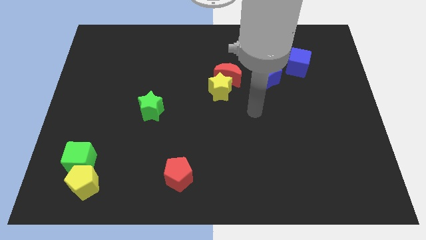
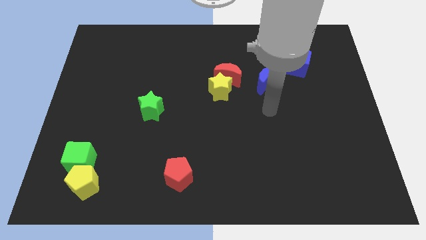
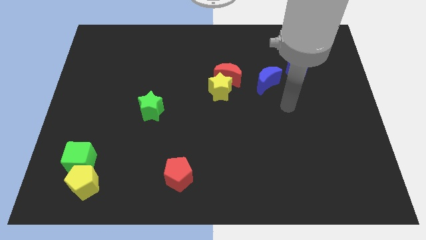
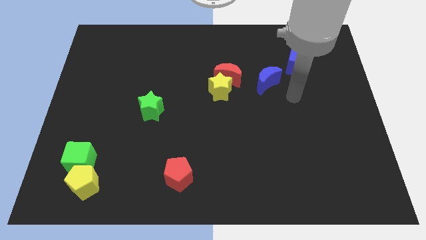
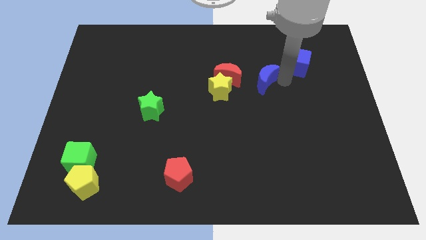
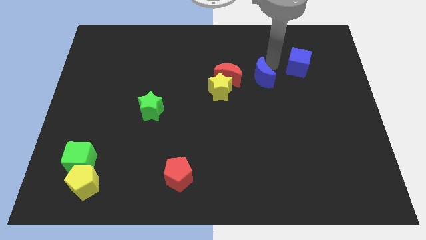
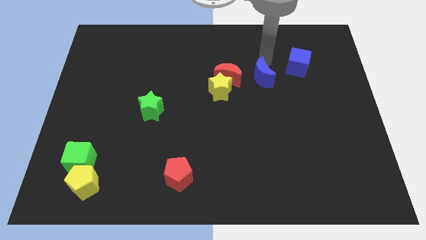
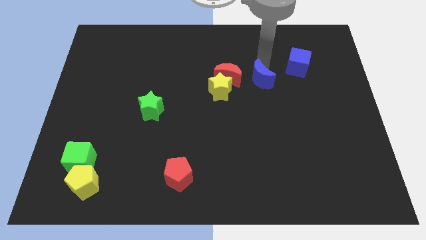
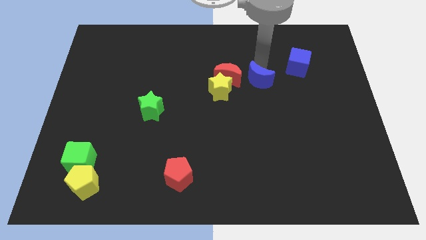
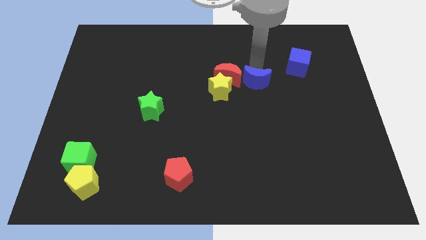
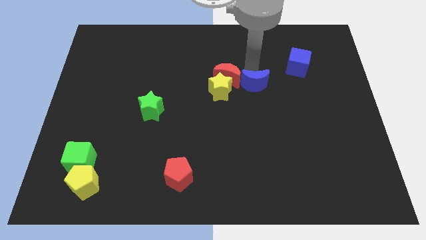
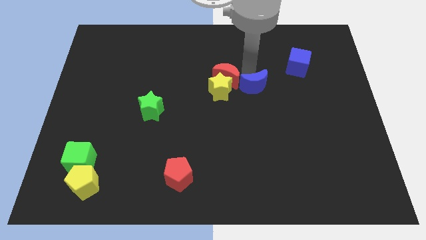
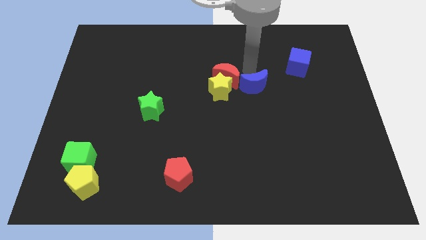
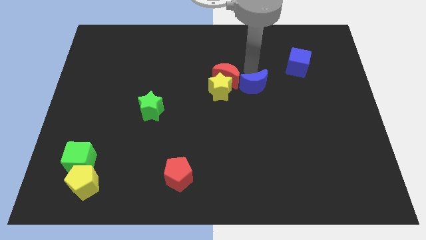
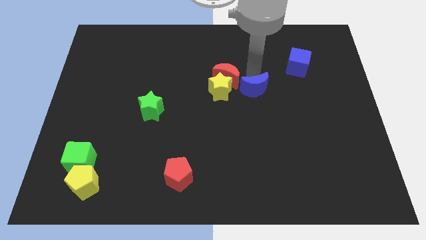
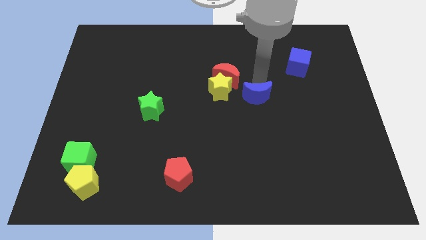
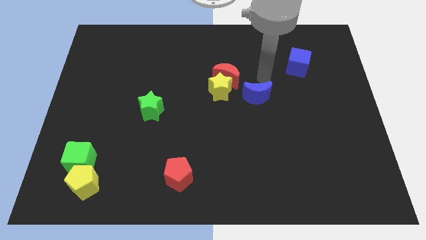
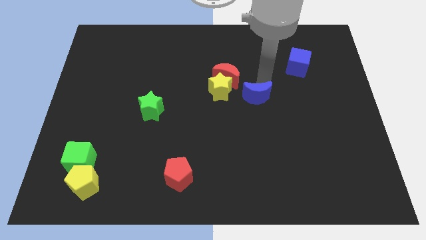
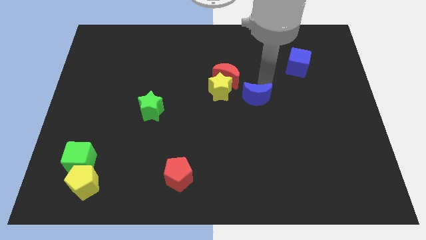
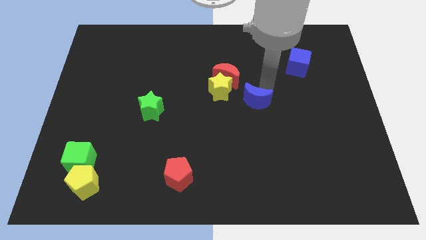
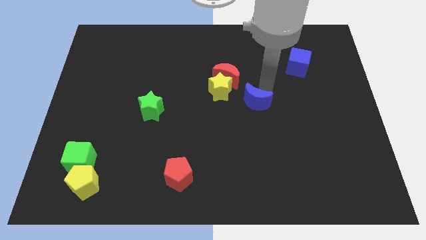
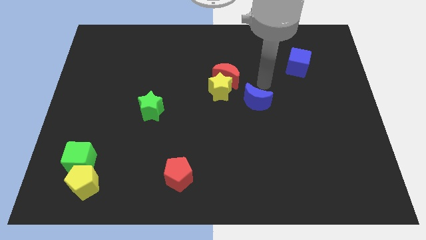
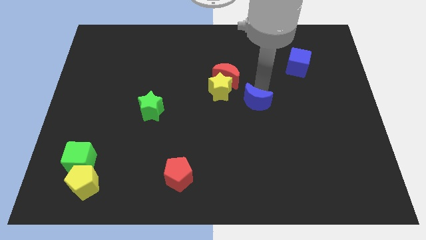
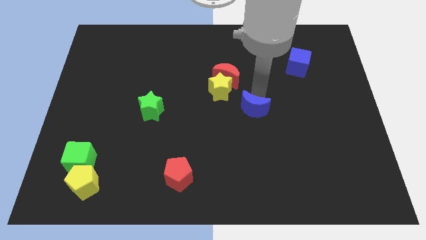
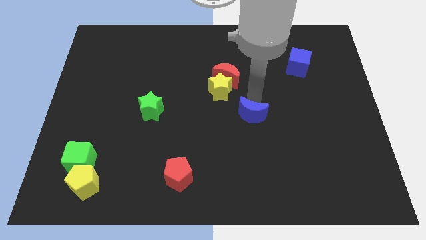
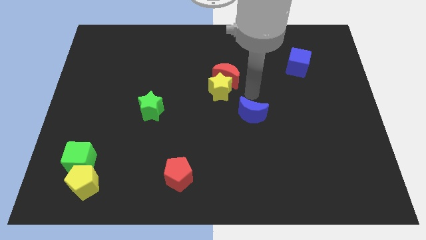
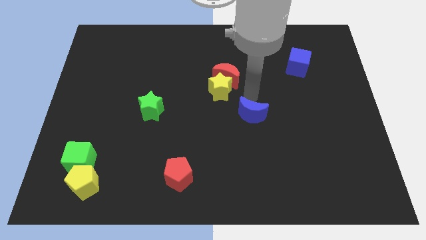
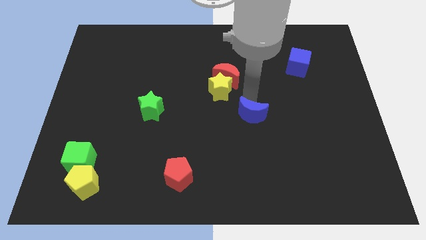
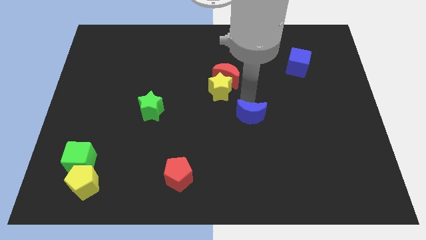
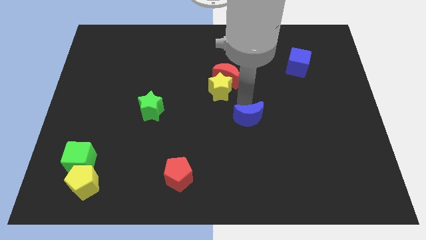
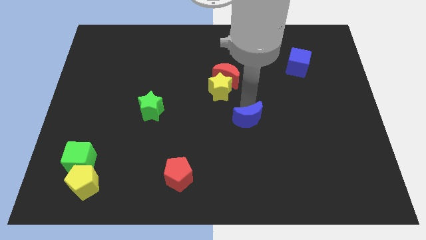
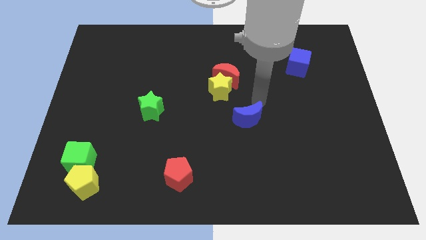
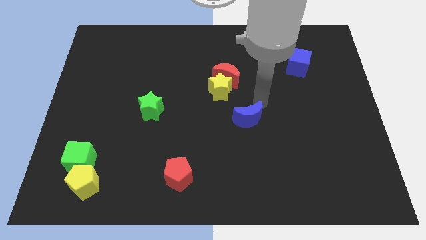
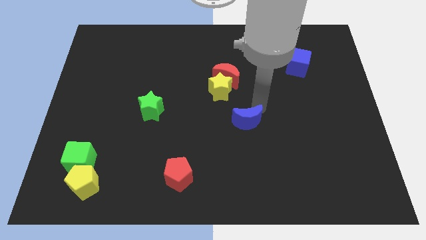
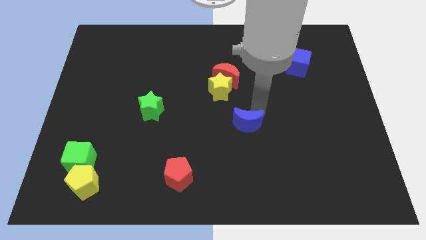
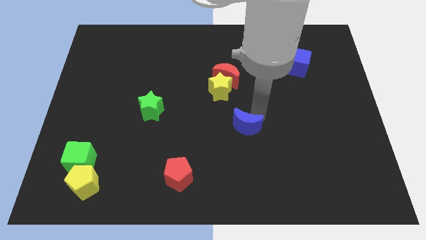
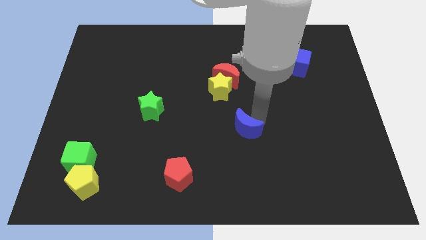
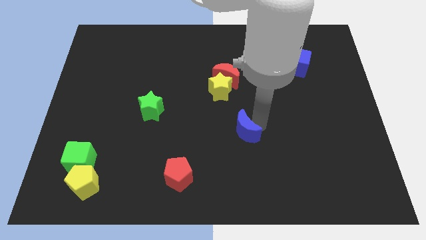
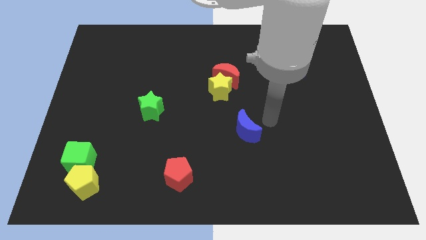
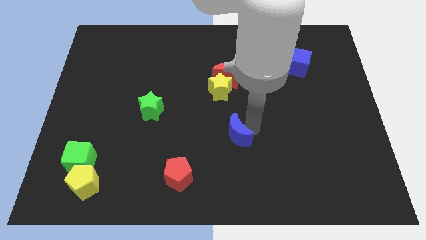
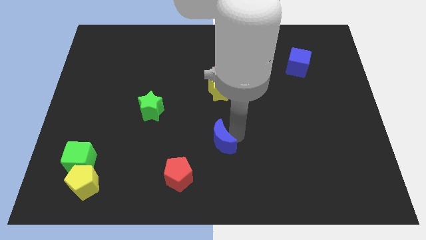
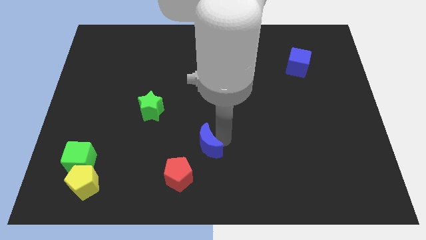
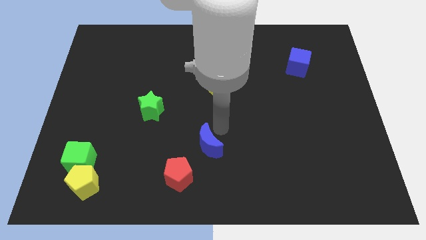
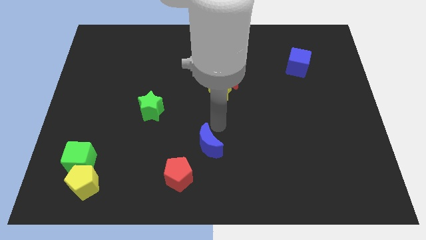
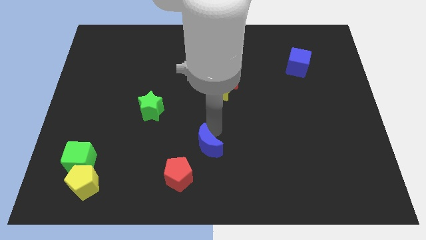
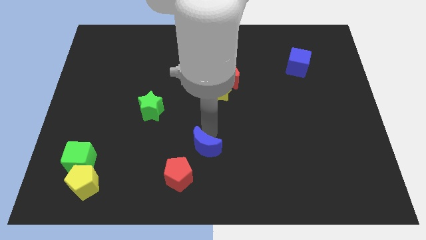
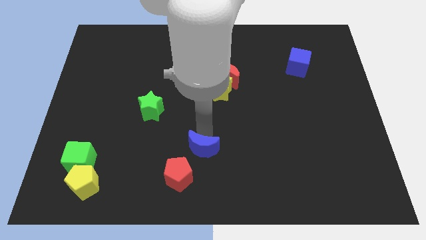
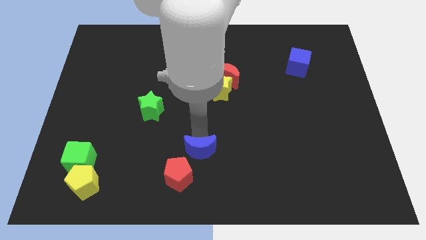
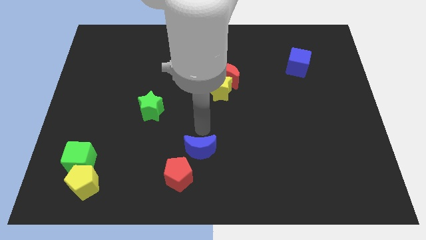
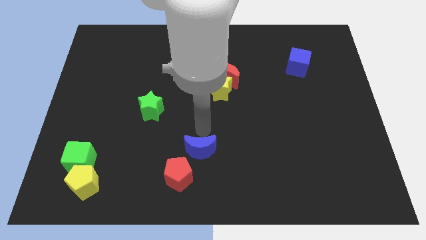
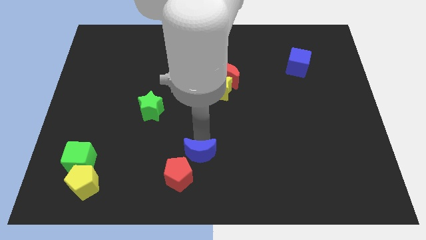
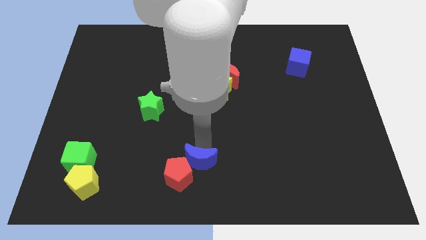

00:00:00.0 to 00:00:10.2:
put the blue moon next to the red pentagon

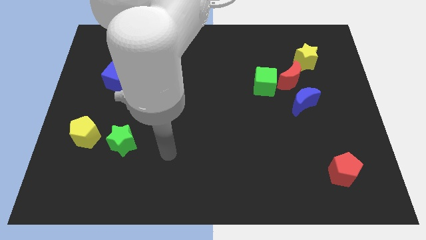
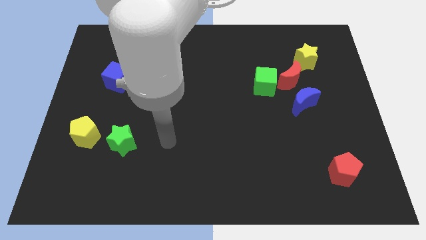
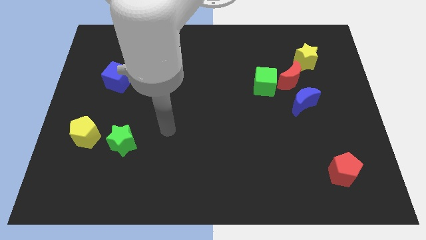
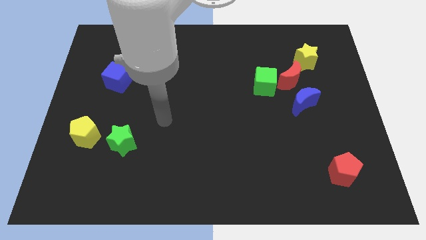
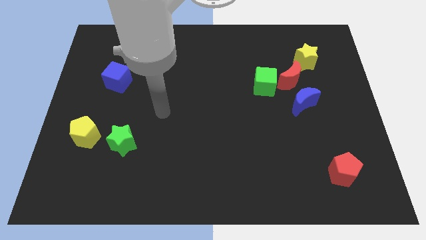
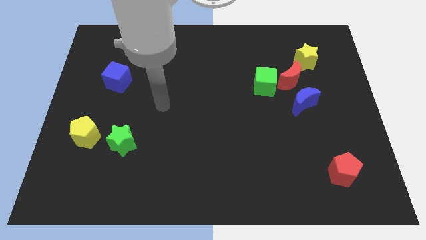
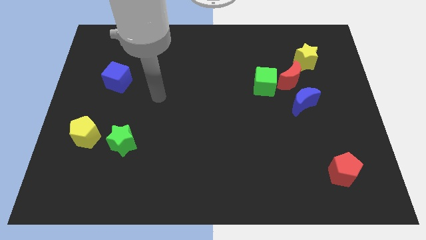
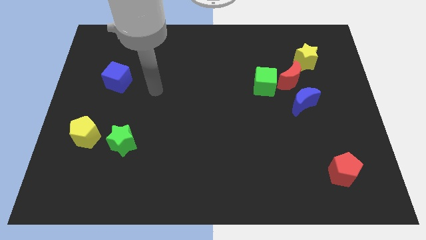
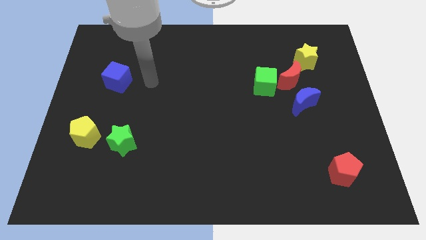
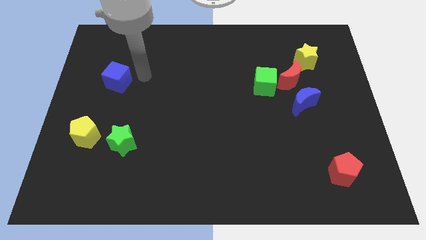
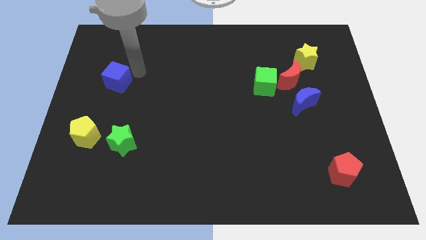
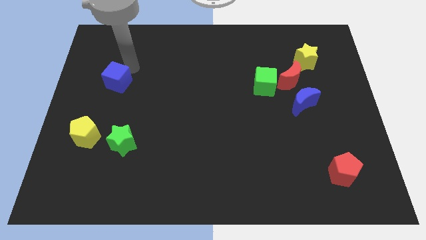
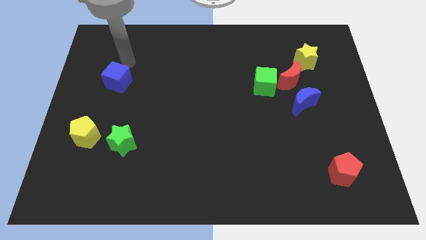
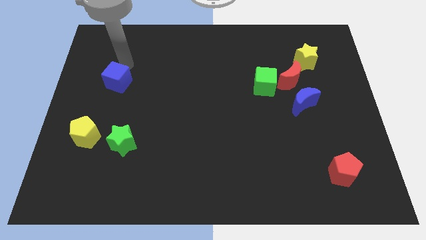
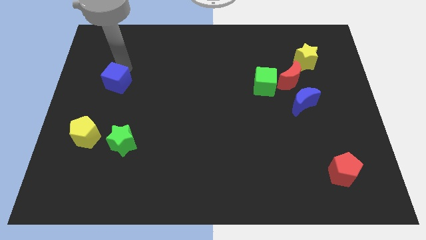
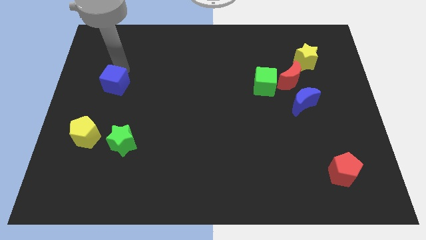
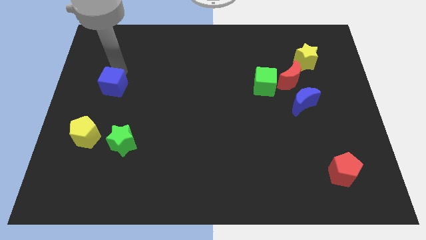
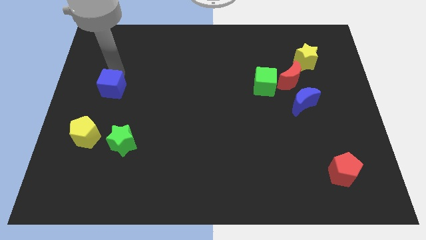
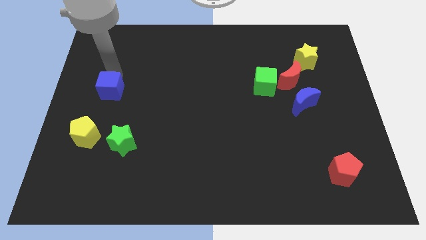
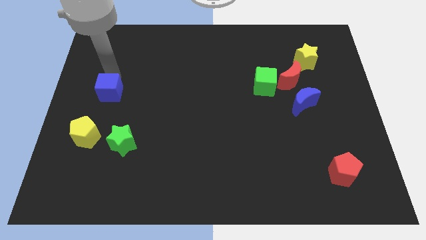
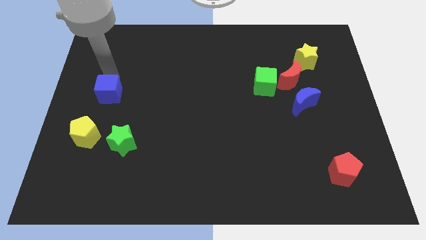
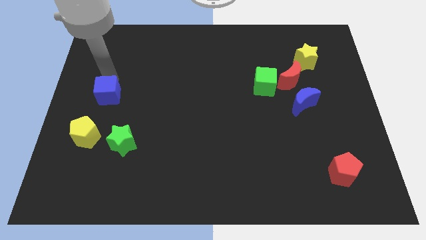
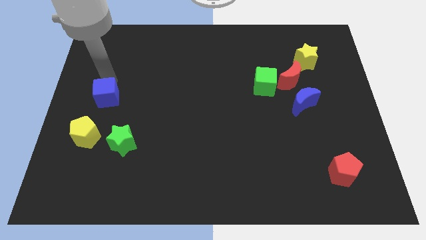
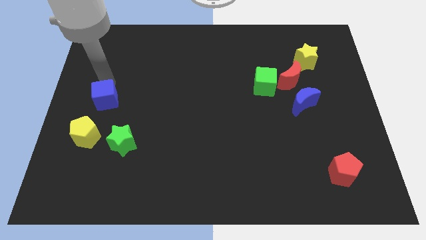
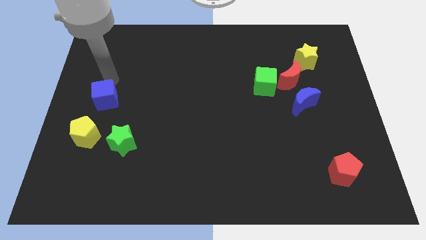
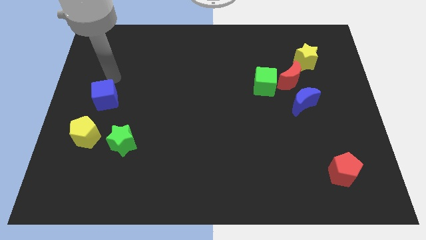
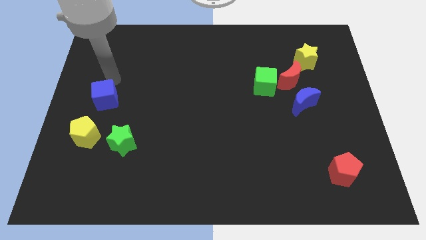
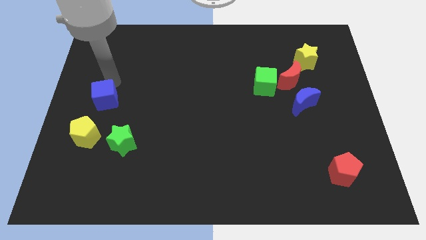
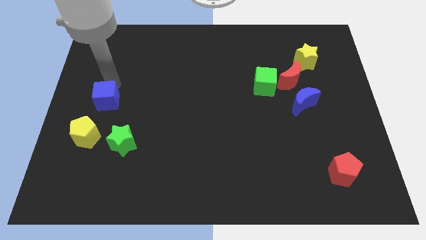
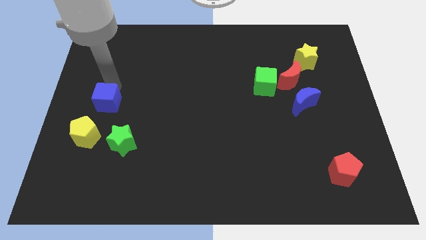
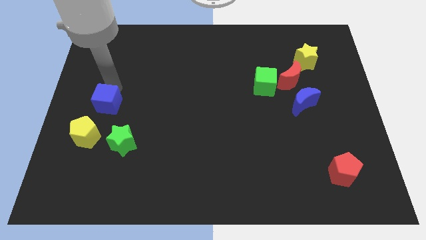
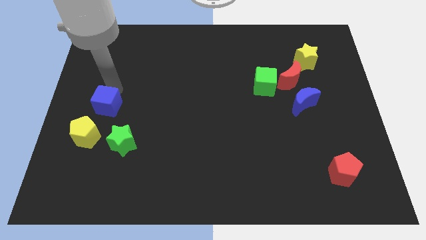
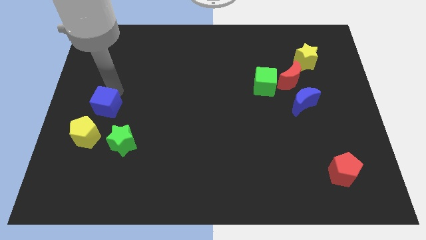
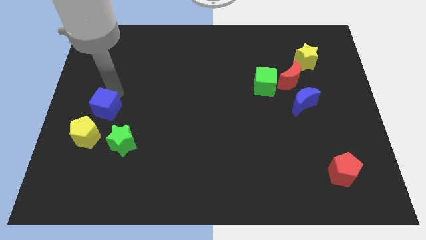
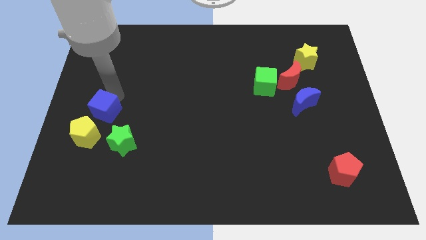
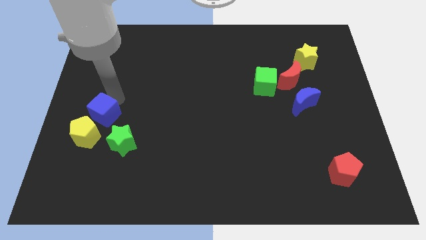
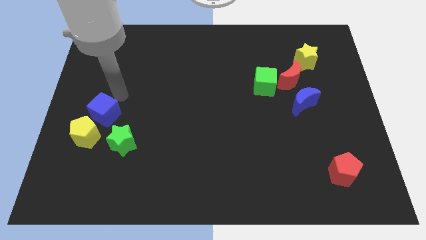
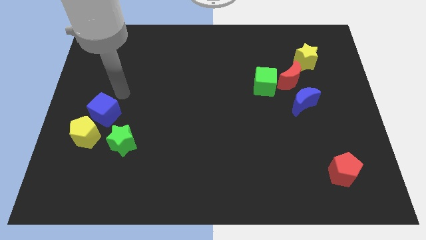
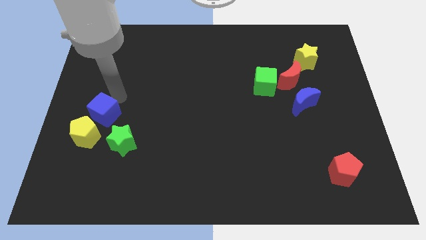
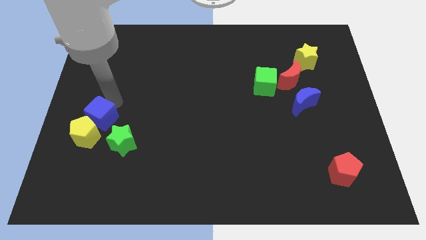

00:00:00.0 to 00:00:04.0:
push the blue cube next to the yellow pentagon
